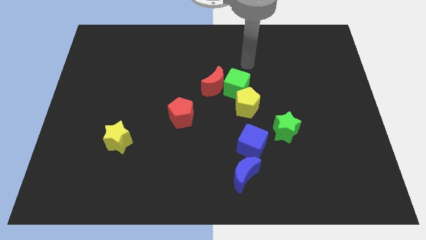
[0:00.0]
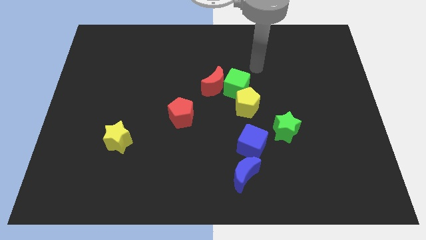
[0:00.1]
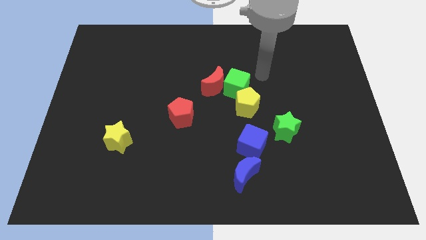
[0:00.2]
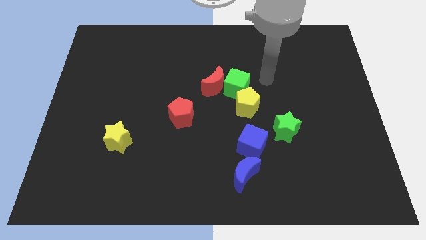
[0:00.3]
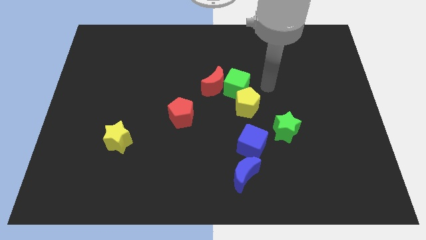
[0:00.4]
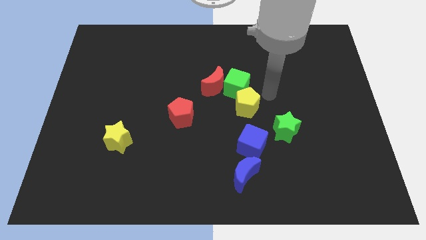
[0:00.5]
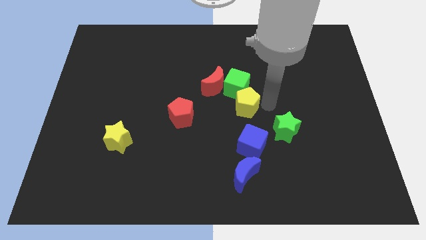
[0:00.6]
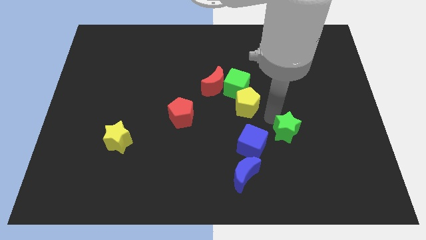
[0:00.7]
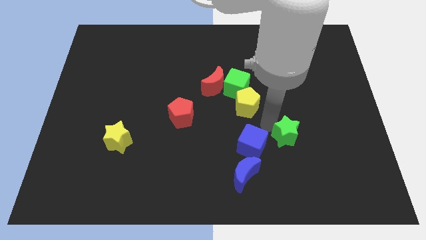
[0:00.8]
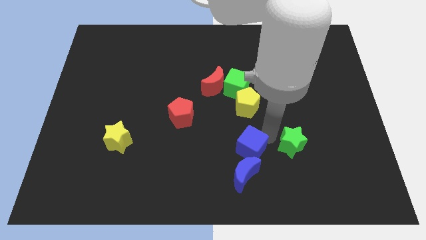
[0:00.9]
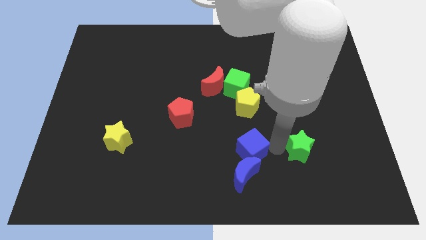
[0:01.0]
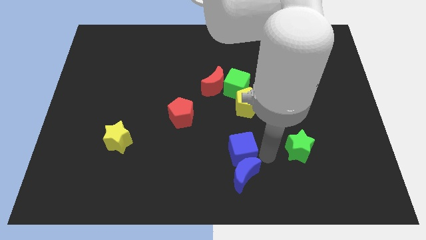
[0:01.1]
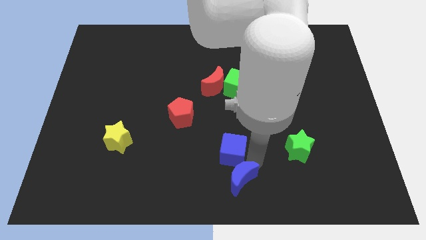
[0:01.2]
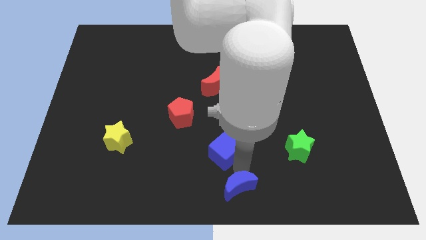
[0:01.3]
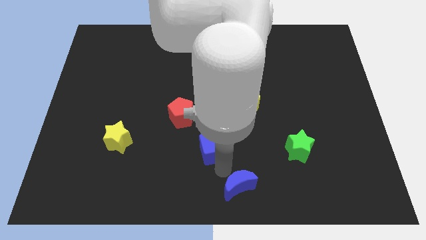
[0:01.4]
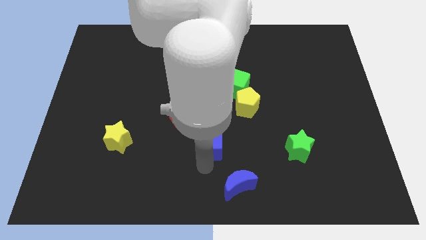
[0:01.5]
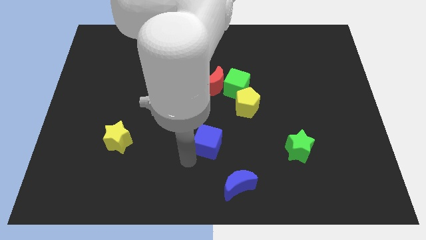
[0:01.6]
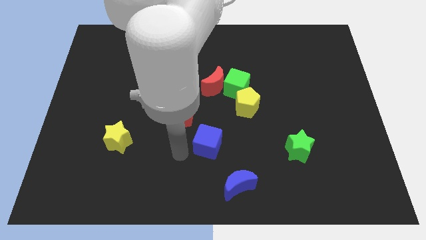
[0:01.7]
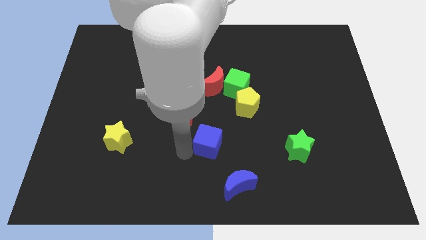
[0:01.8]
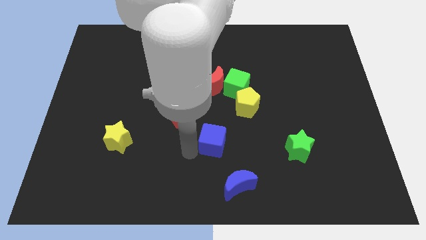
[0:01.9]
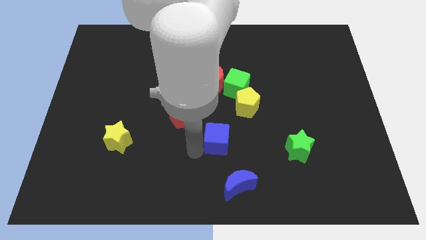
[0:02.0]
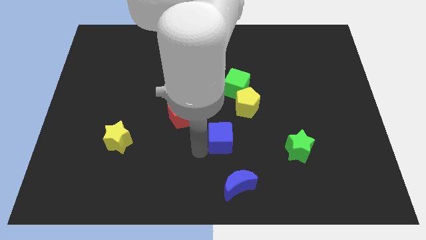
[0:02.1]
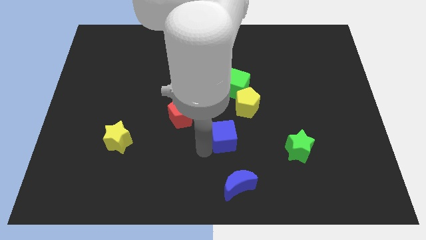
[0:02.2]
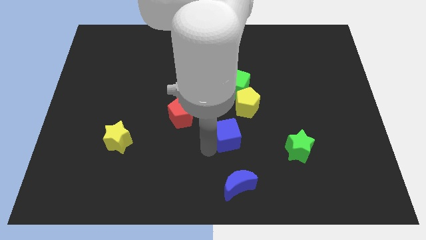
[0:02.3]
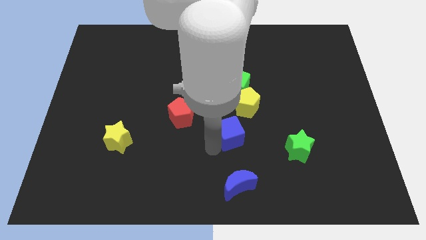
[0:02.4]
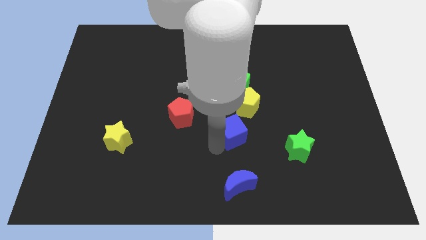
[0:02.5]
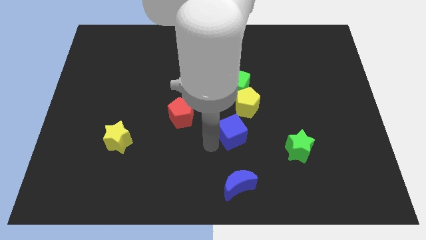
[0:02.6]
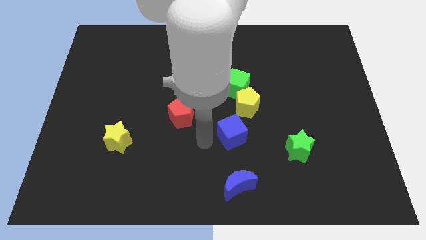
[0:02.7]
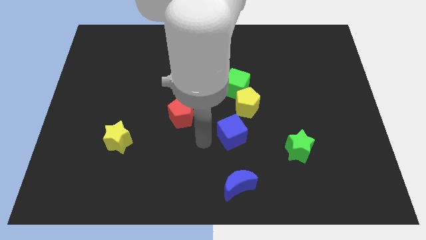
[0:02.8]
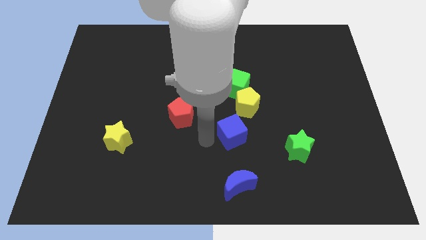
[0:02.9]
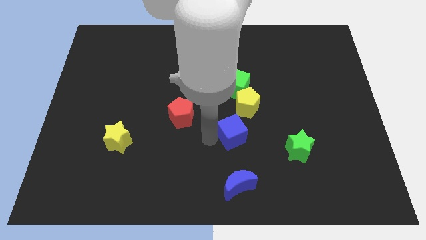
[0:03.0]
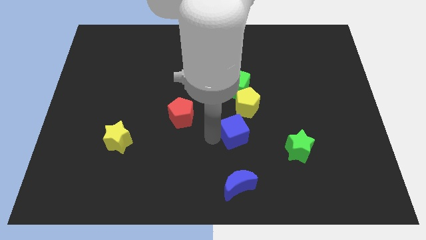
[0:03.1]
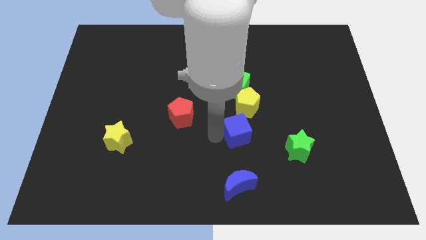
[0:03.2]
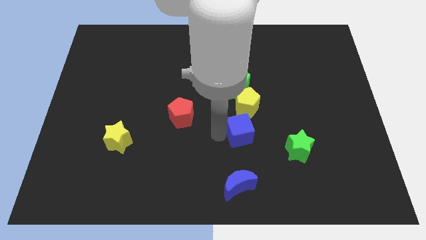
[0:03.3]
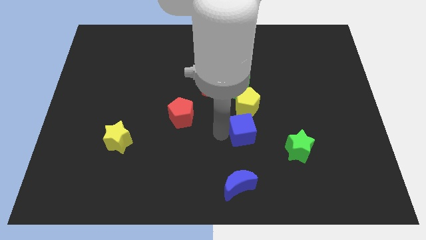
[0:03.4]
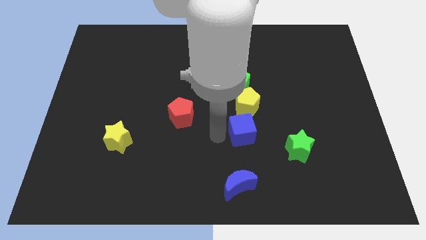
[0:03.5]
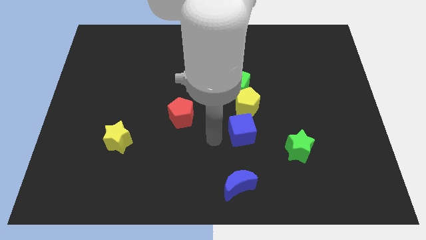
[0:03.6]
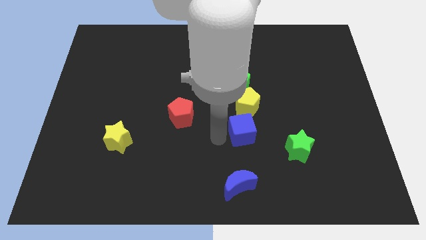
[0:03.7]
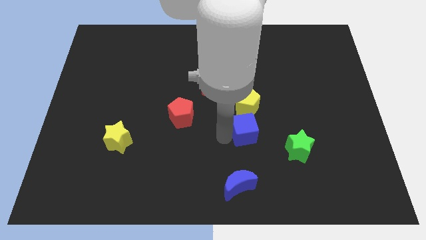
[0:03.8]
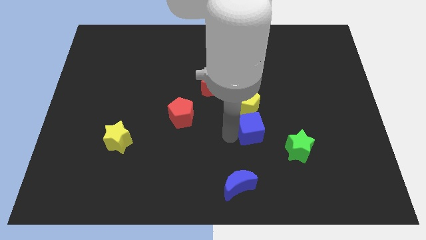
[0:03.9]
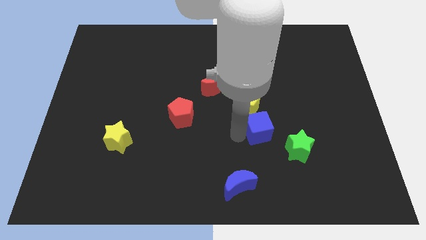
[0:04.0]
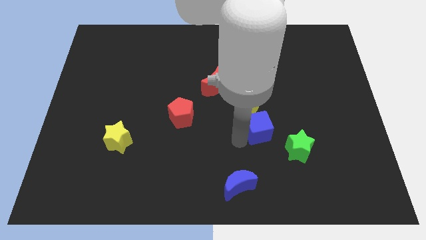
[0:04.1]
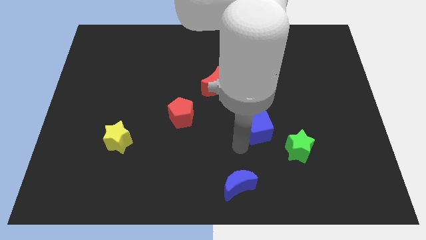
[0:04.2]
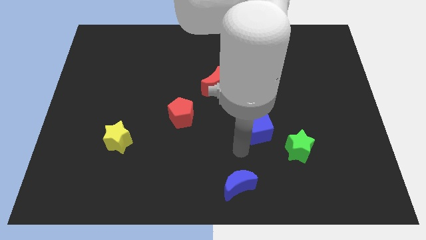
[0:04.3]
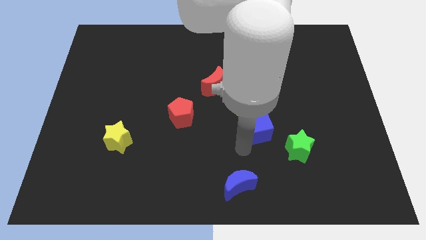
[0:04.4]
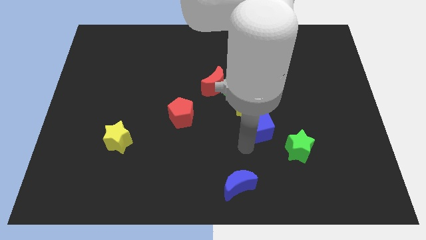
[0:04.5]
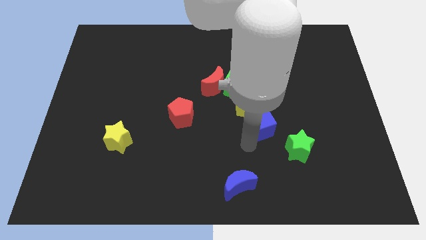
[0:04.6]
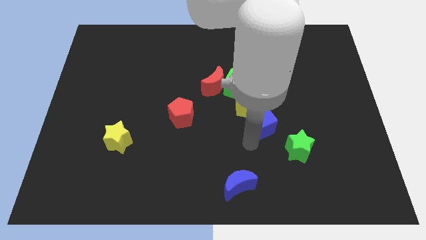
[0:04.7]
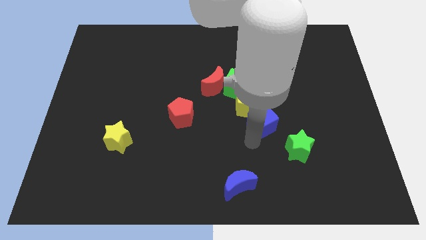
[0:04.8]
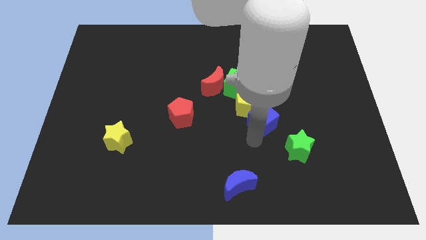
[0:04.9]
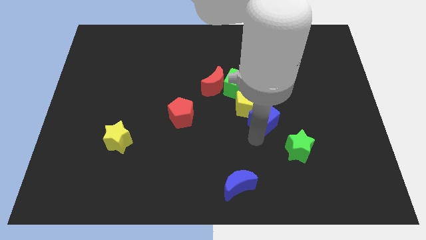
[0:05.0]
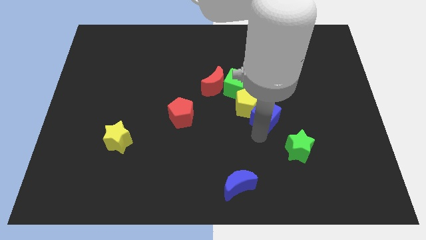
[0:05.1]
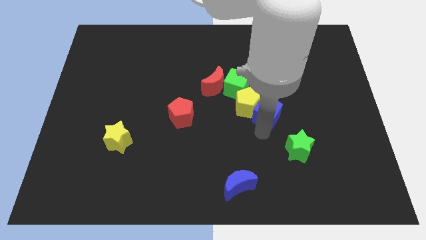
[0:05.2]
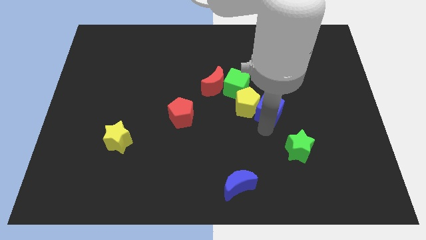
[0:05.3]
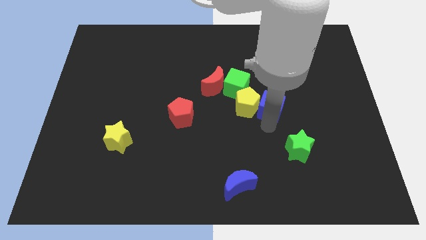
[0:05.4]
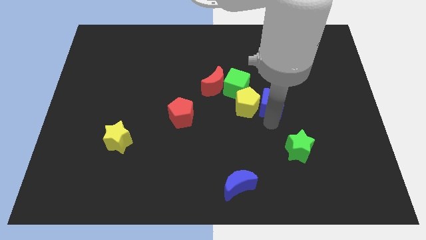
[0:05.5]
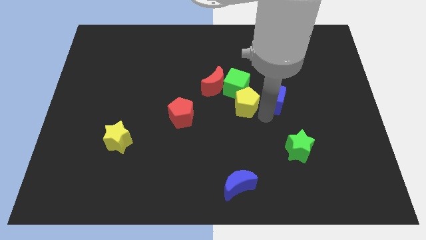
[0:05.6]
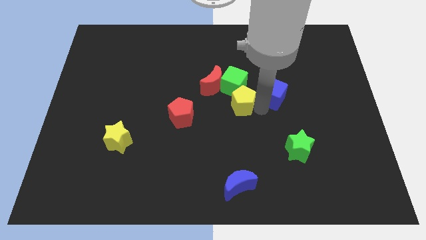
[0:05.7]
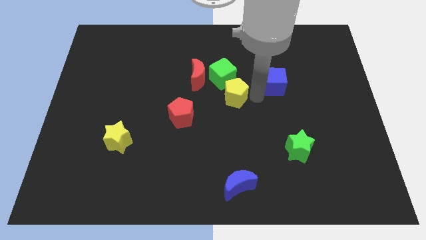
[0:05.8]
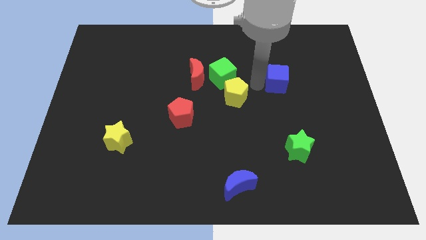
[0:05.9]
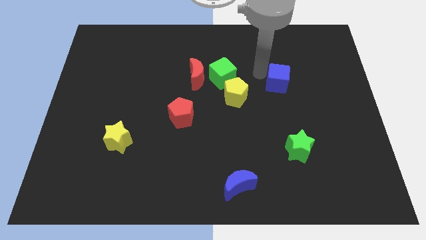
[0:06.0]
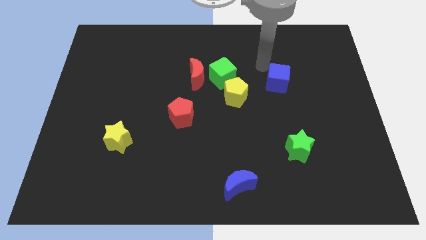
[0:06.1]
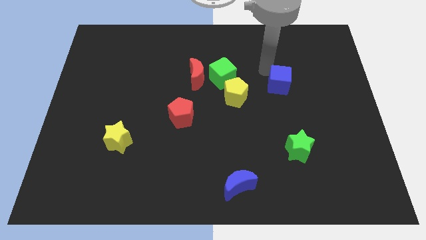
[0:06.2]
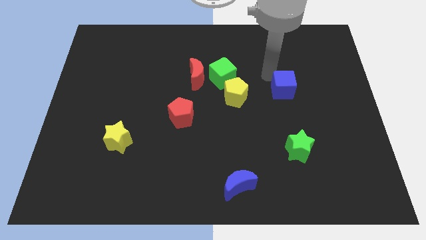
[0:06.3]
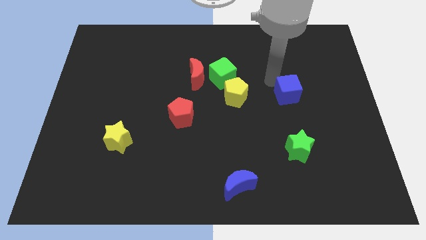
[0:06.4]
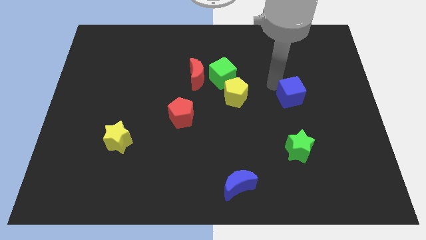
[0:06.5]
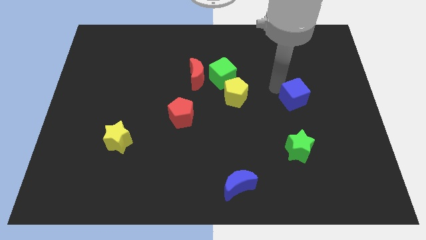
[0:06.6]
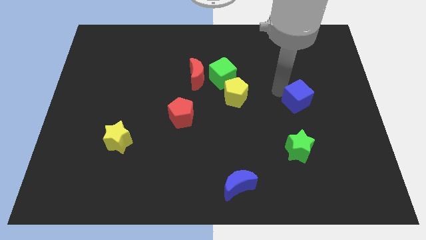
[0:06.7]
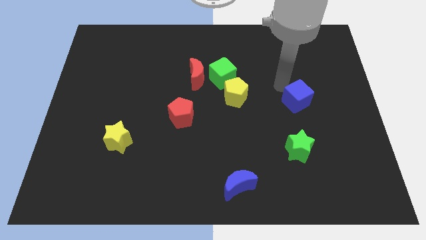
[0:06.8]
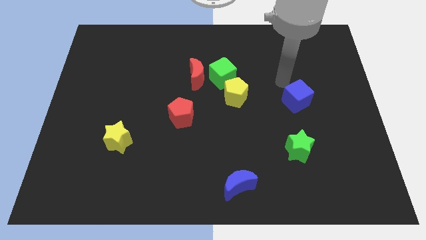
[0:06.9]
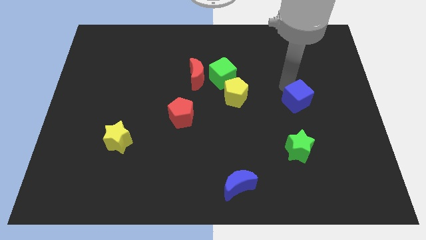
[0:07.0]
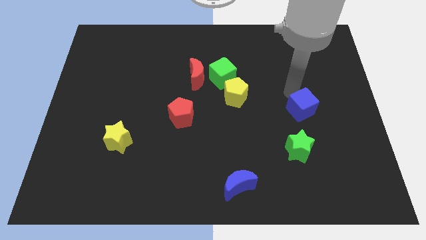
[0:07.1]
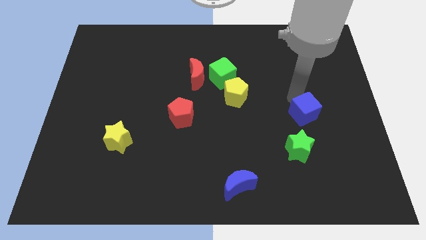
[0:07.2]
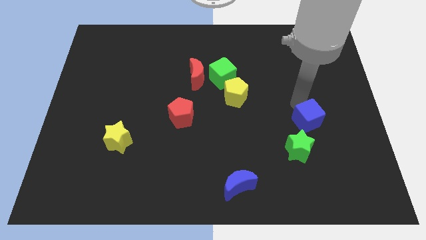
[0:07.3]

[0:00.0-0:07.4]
push the blue cube diagonally up and to the right of the green star
